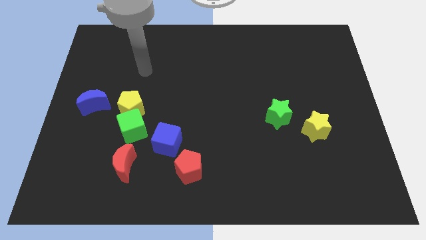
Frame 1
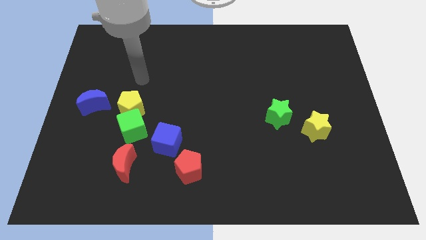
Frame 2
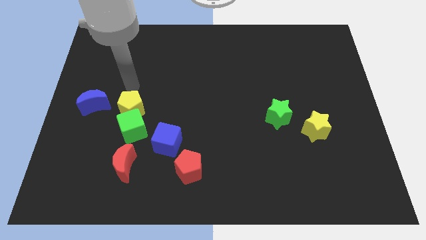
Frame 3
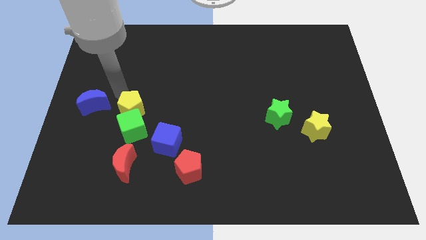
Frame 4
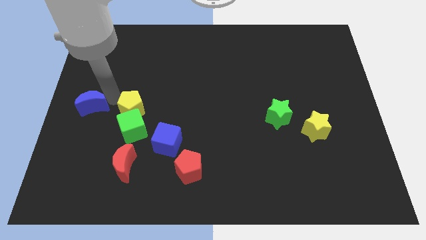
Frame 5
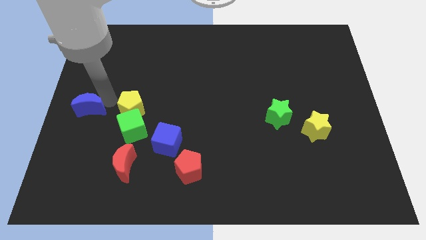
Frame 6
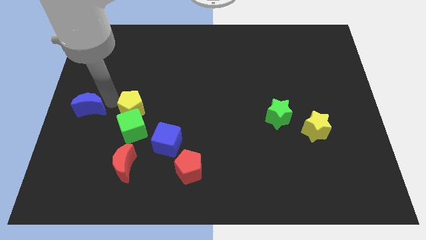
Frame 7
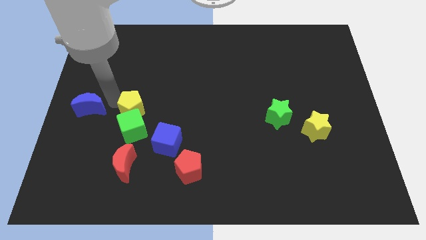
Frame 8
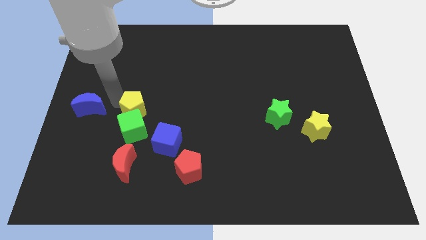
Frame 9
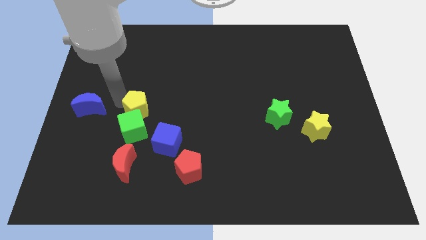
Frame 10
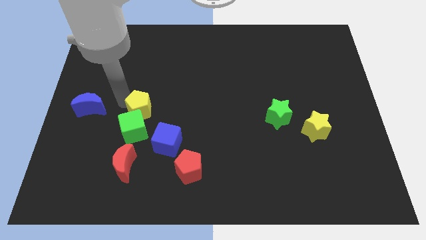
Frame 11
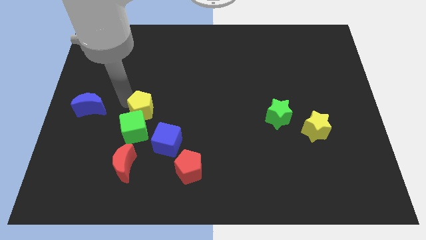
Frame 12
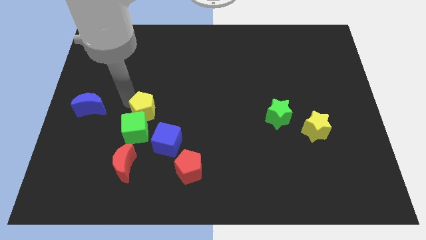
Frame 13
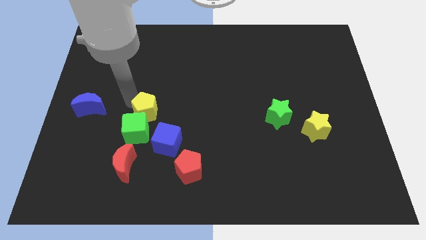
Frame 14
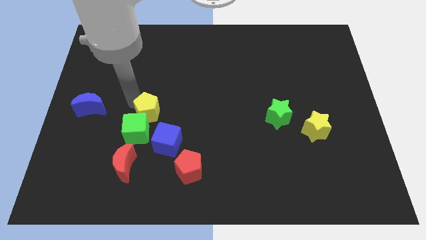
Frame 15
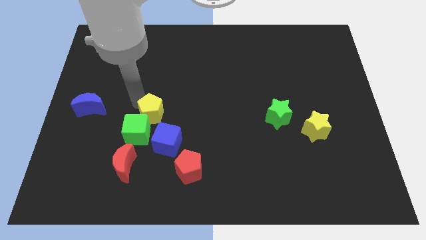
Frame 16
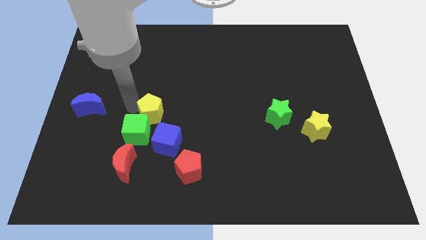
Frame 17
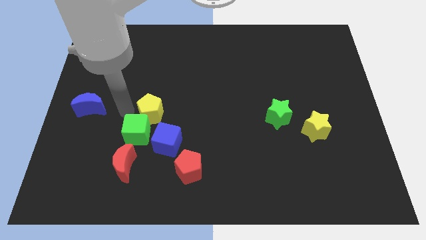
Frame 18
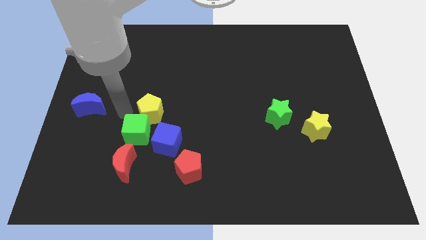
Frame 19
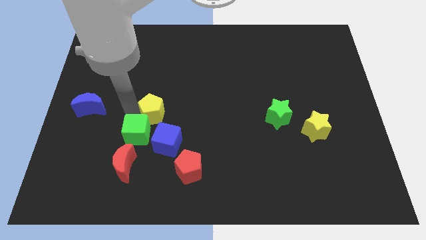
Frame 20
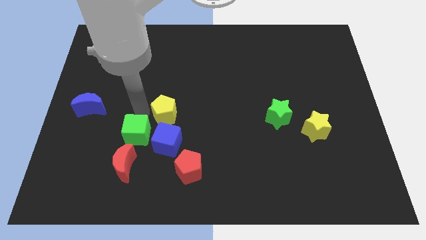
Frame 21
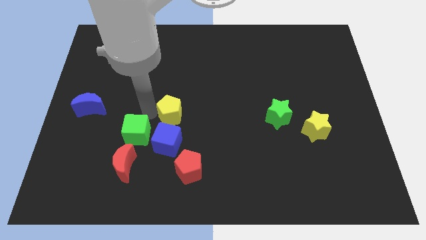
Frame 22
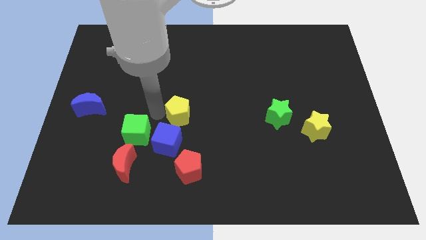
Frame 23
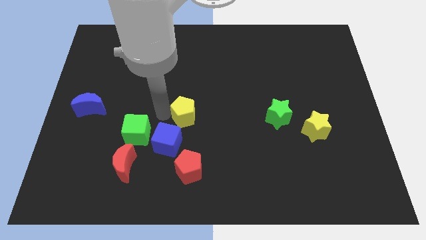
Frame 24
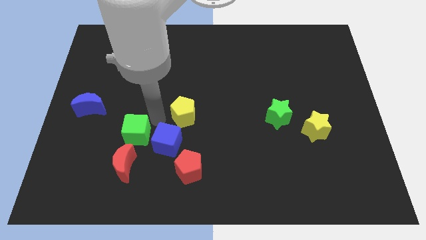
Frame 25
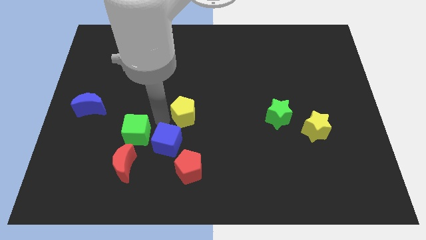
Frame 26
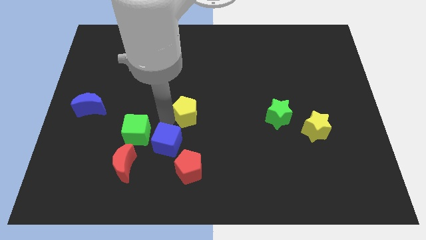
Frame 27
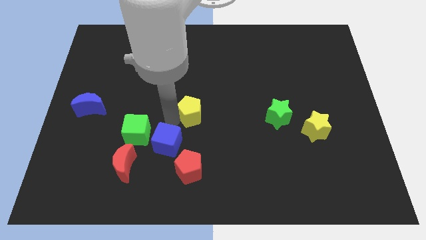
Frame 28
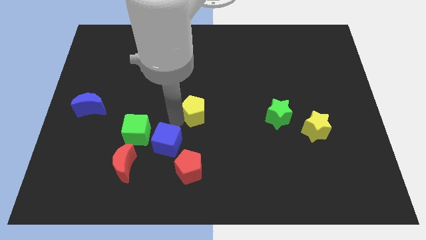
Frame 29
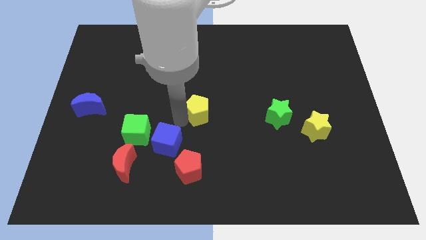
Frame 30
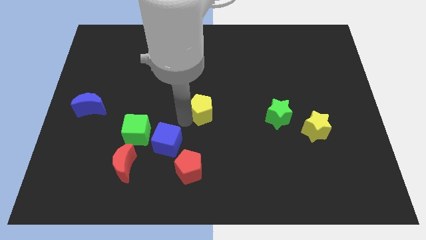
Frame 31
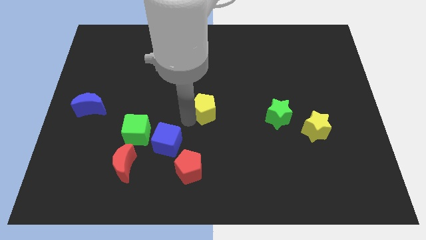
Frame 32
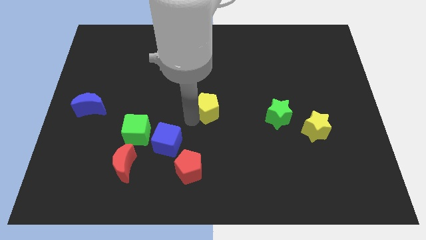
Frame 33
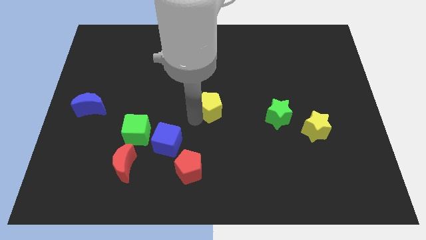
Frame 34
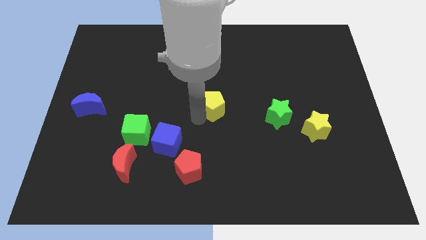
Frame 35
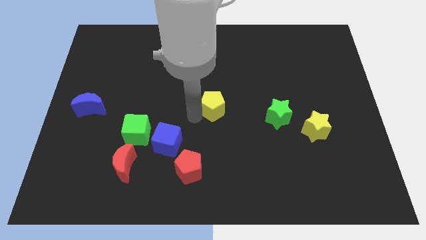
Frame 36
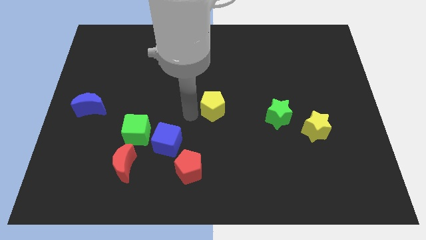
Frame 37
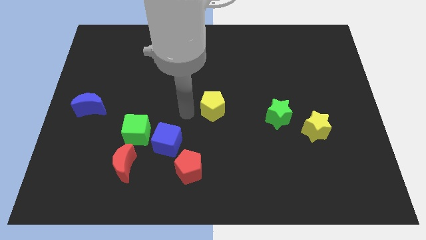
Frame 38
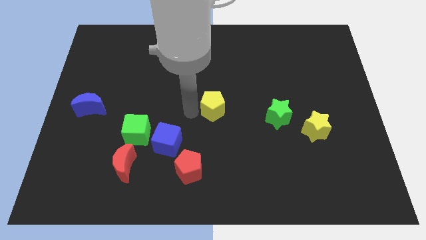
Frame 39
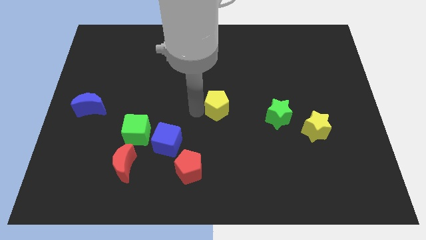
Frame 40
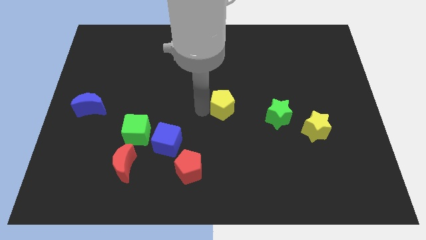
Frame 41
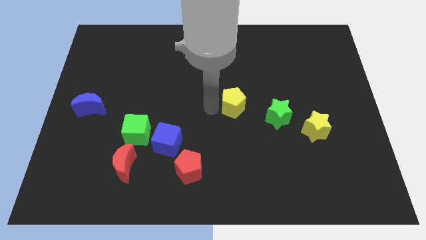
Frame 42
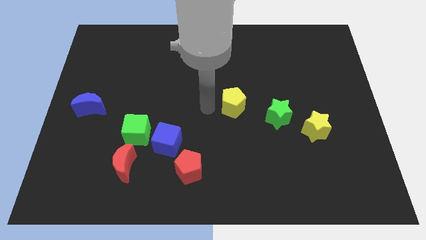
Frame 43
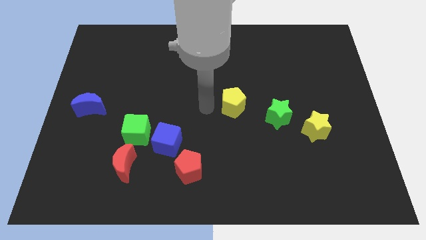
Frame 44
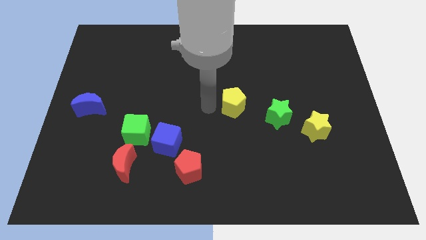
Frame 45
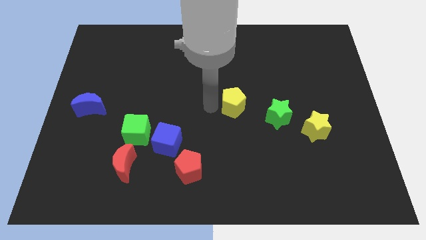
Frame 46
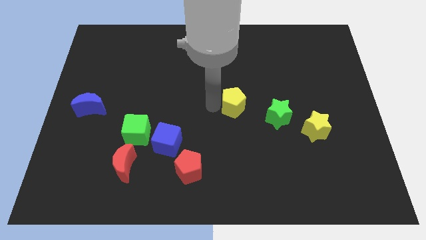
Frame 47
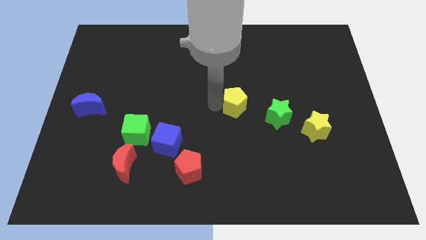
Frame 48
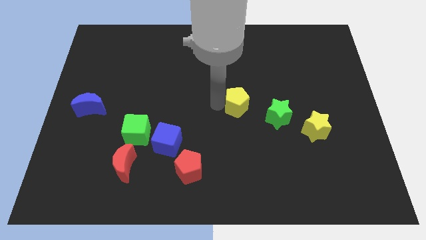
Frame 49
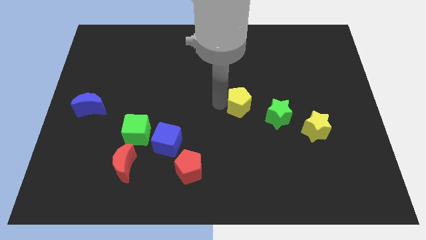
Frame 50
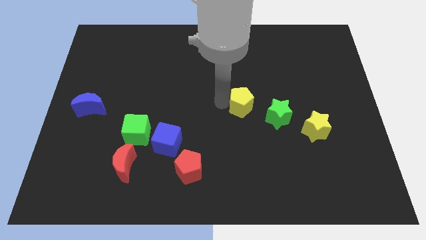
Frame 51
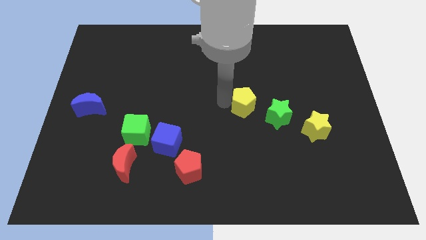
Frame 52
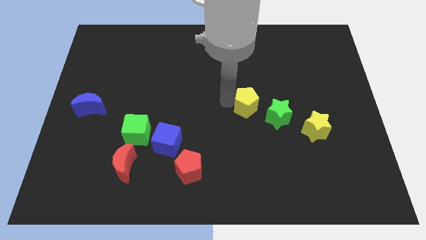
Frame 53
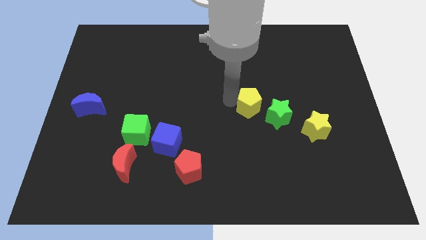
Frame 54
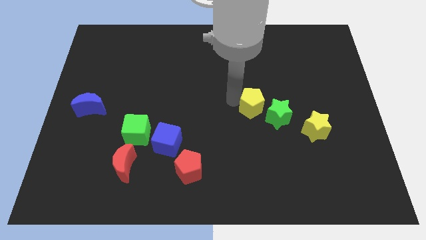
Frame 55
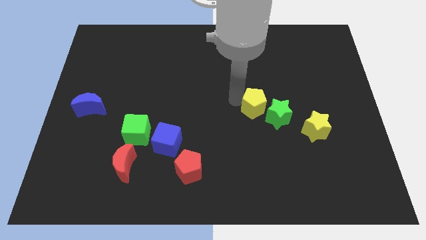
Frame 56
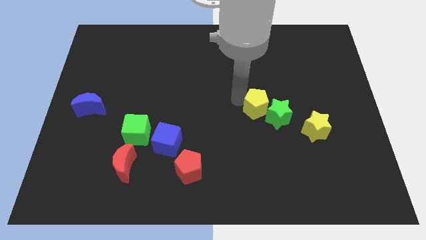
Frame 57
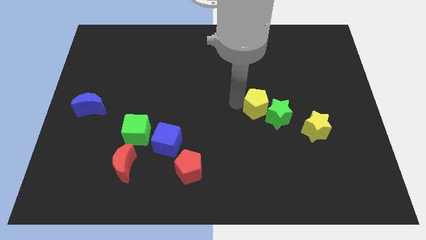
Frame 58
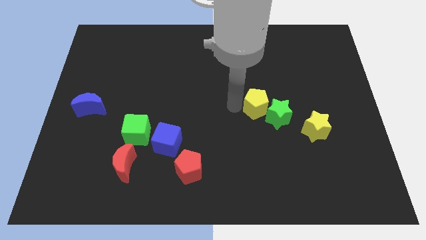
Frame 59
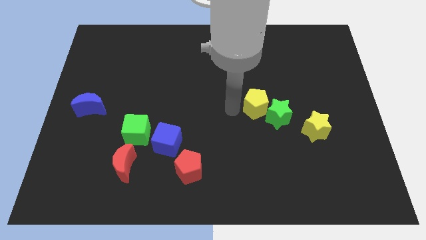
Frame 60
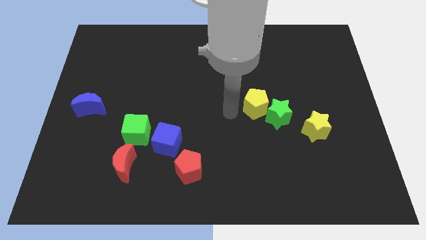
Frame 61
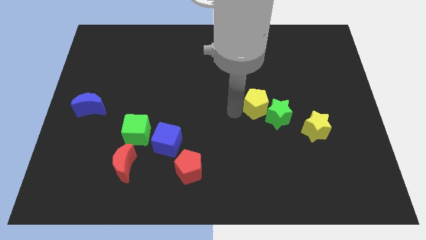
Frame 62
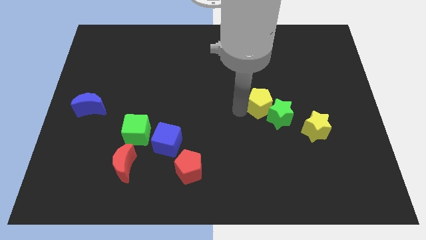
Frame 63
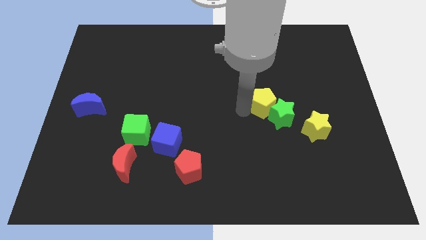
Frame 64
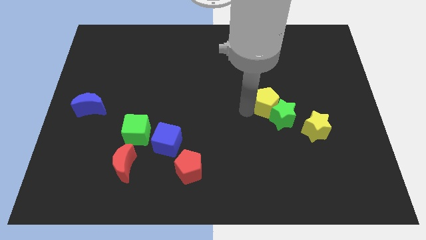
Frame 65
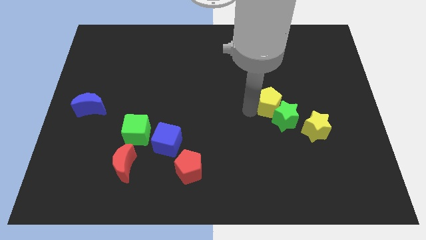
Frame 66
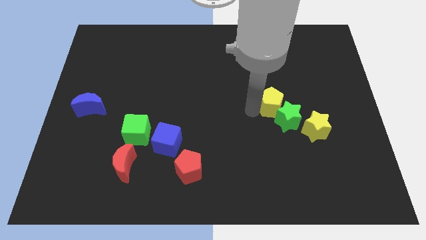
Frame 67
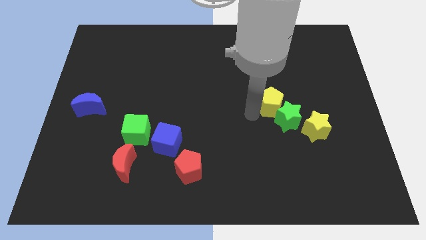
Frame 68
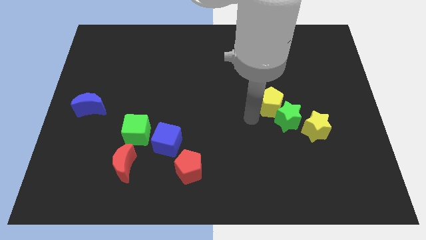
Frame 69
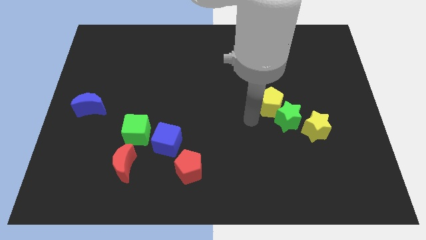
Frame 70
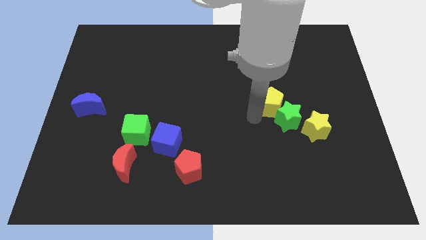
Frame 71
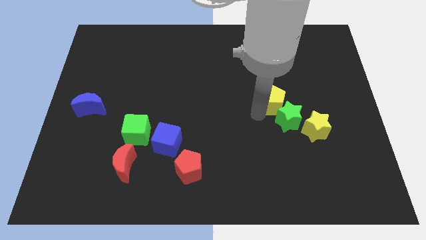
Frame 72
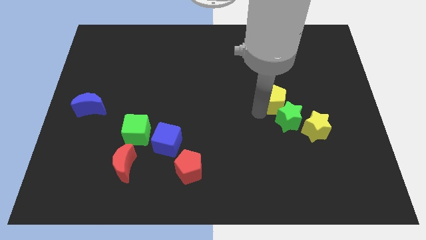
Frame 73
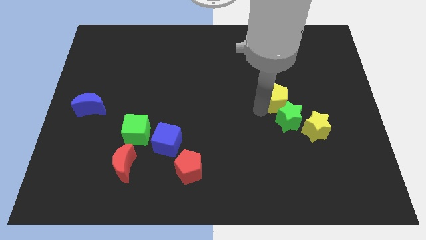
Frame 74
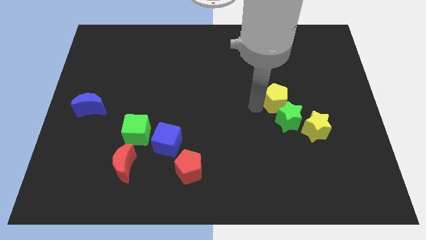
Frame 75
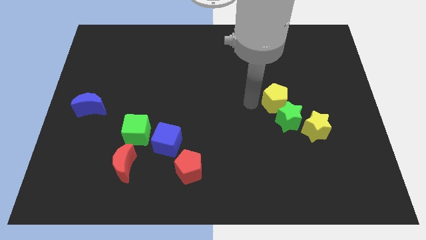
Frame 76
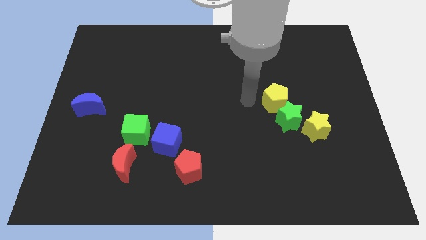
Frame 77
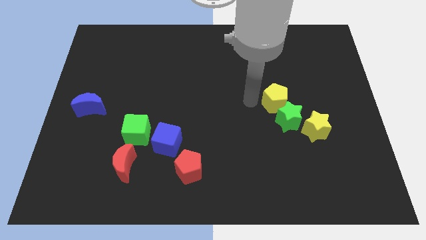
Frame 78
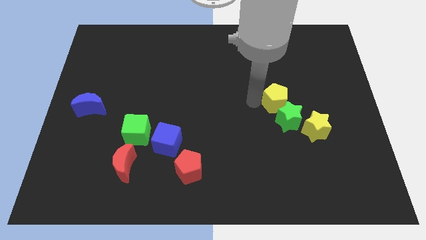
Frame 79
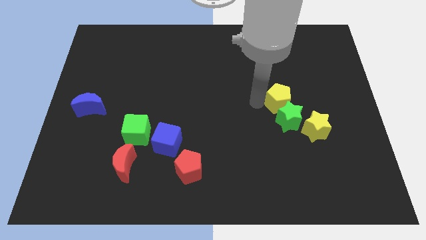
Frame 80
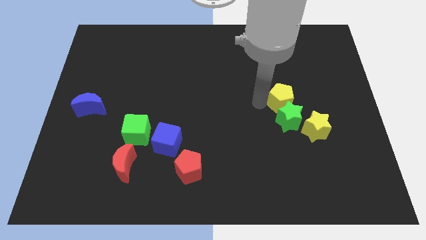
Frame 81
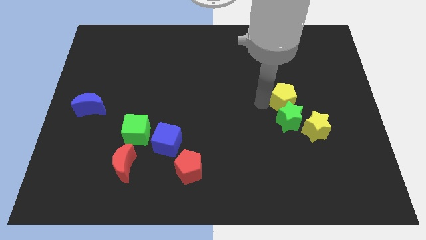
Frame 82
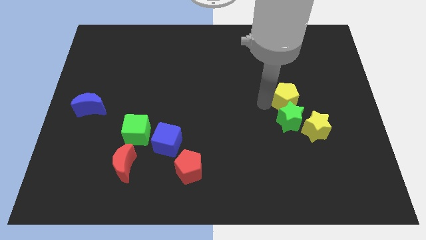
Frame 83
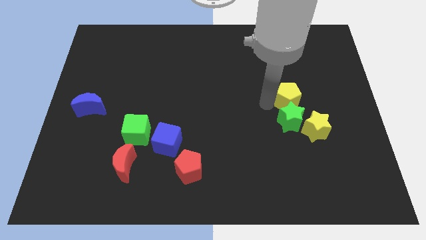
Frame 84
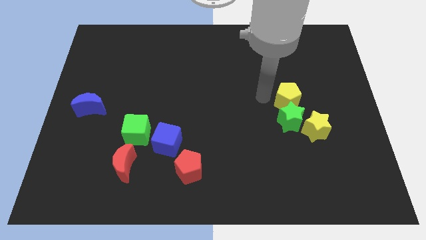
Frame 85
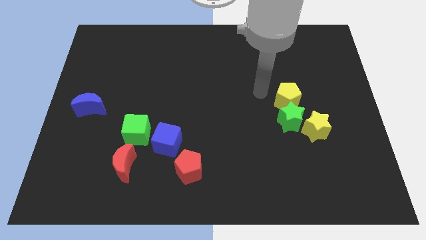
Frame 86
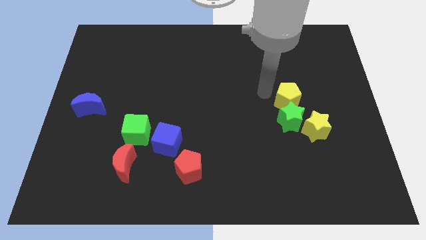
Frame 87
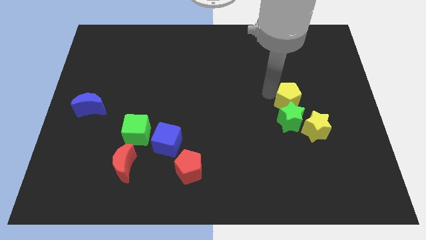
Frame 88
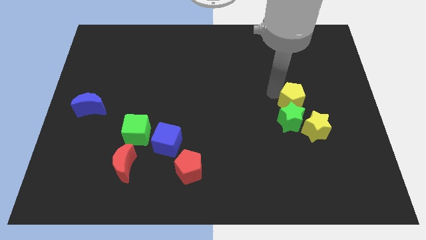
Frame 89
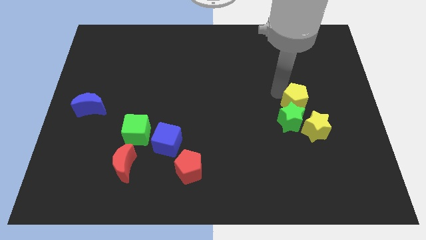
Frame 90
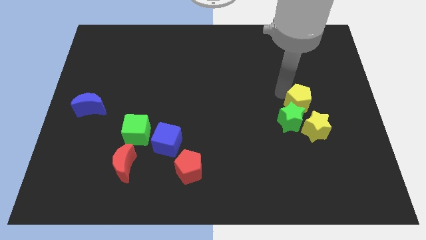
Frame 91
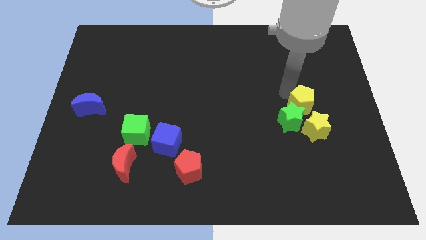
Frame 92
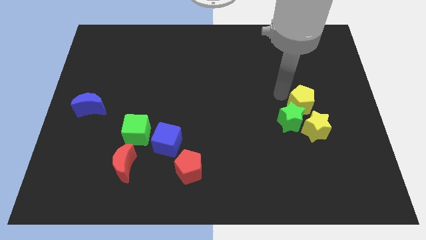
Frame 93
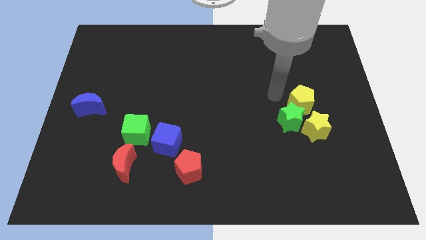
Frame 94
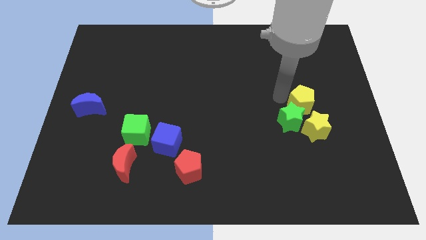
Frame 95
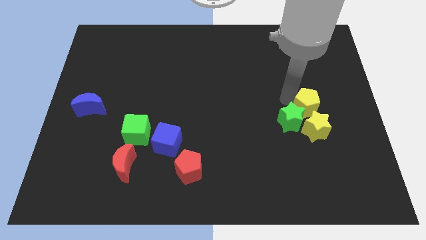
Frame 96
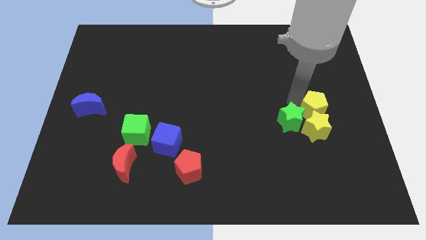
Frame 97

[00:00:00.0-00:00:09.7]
push the yellow pentagon to the top right of the yellow star
